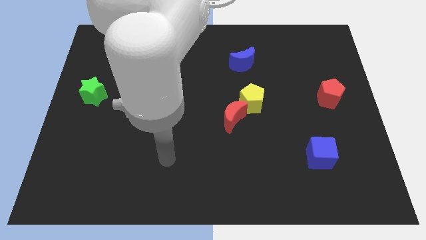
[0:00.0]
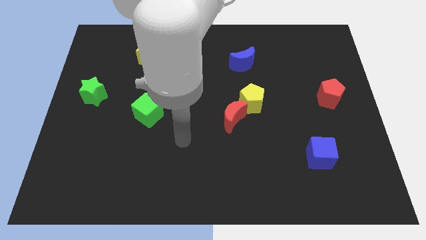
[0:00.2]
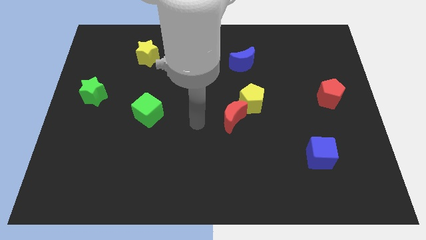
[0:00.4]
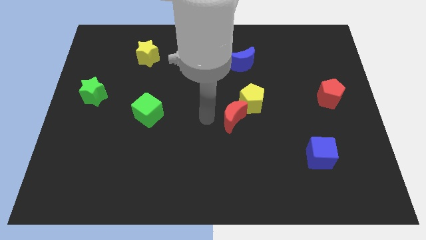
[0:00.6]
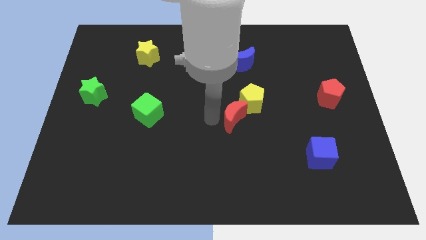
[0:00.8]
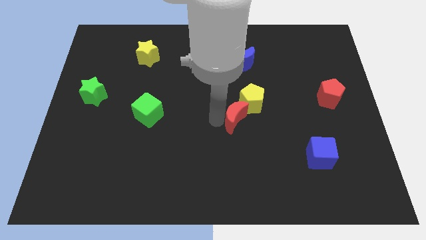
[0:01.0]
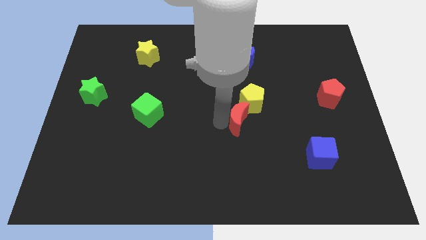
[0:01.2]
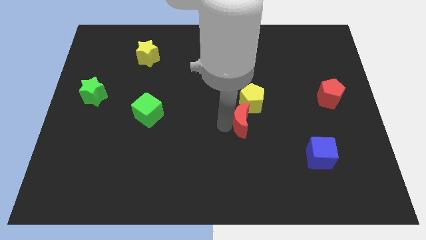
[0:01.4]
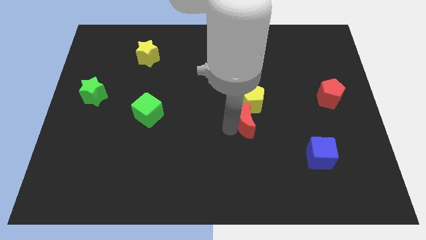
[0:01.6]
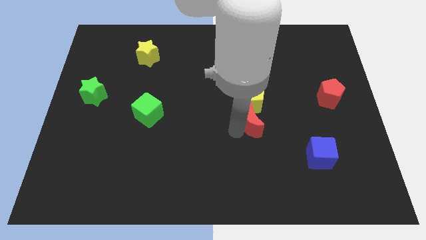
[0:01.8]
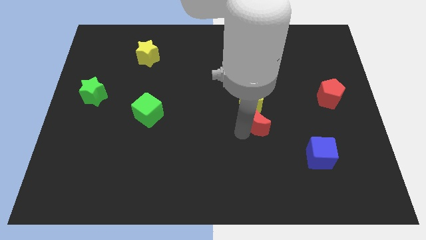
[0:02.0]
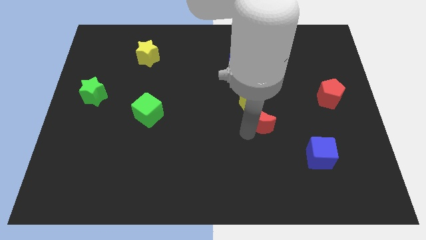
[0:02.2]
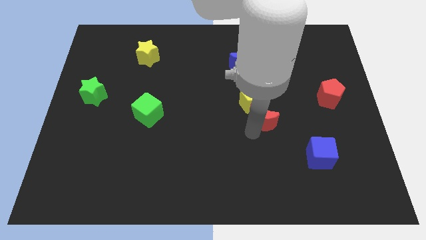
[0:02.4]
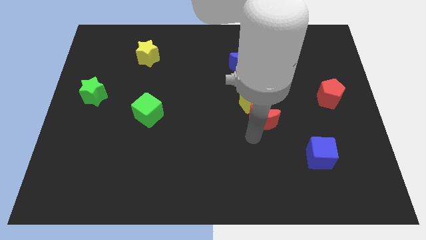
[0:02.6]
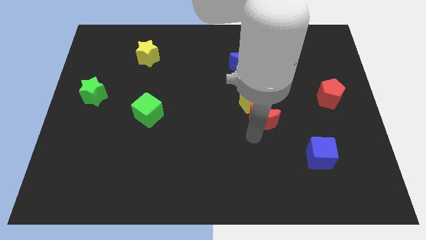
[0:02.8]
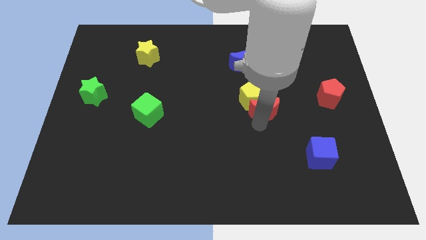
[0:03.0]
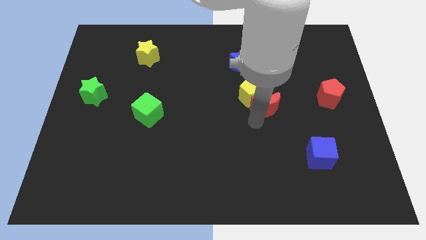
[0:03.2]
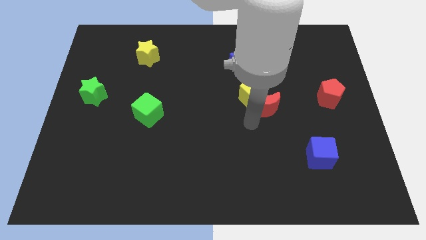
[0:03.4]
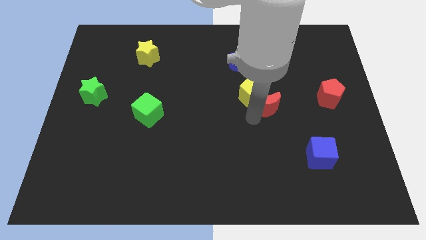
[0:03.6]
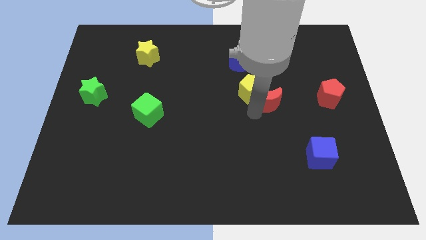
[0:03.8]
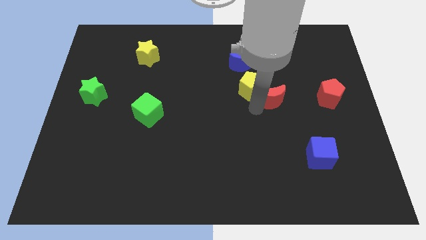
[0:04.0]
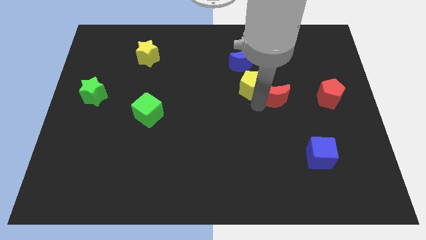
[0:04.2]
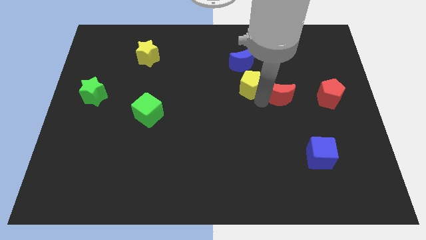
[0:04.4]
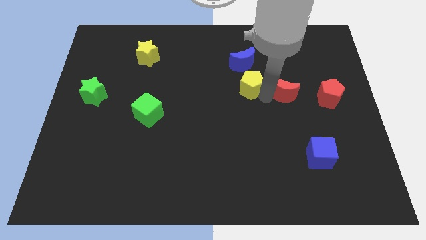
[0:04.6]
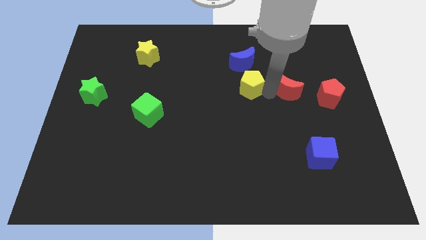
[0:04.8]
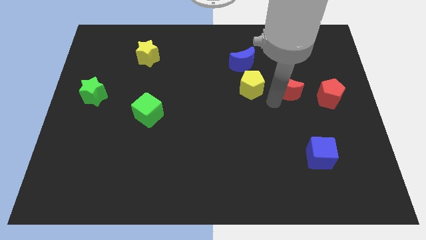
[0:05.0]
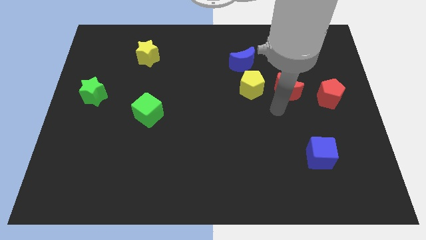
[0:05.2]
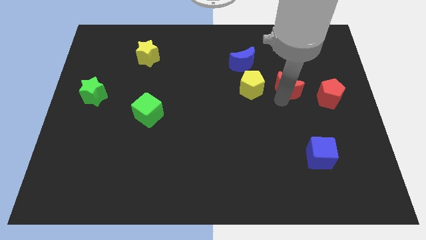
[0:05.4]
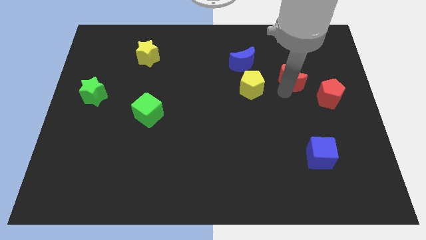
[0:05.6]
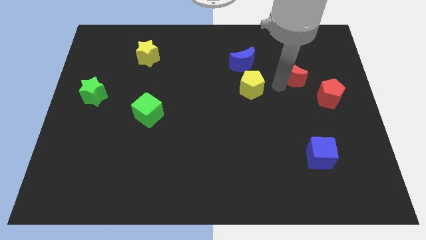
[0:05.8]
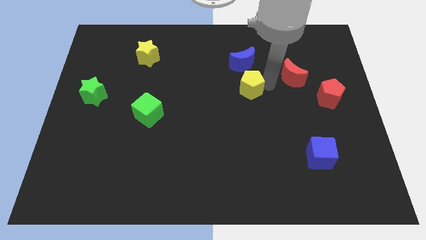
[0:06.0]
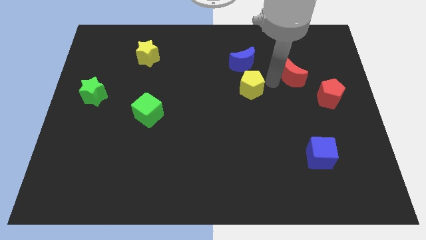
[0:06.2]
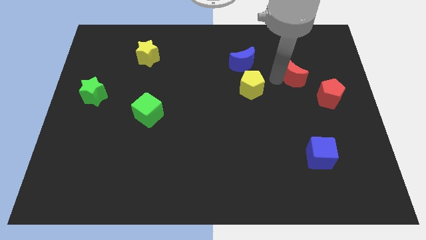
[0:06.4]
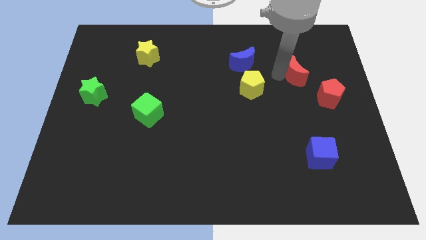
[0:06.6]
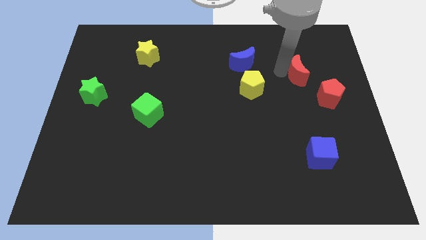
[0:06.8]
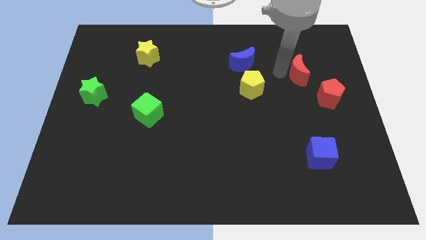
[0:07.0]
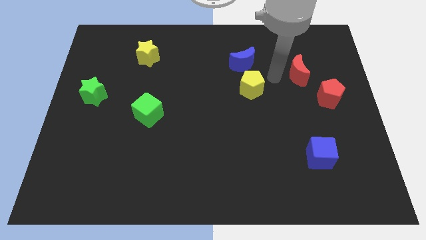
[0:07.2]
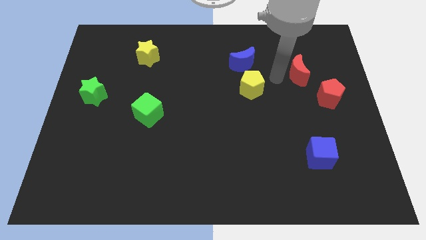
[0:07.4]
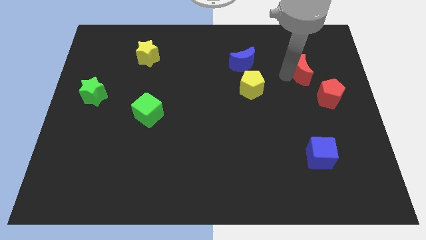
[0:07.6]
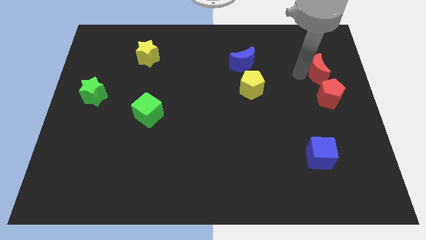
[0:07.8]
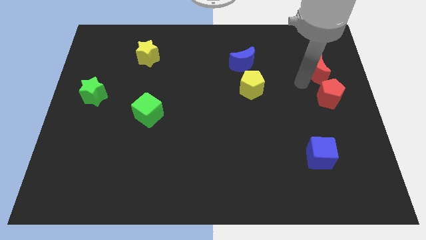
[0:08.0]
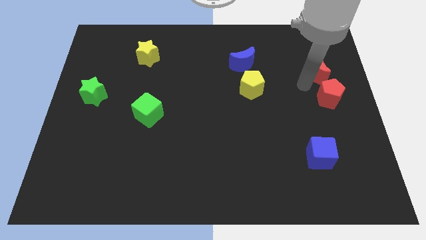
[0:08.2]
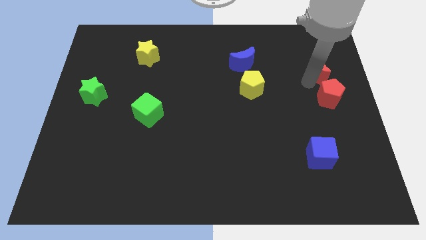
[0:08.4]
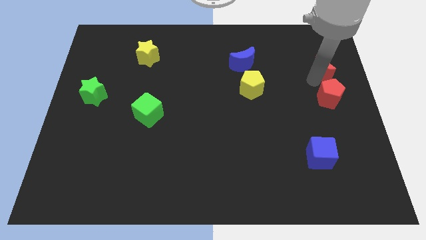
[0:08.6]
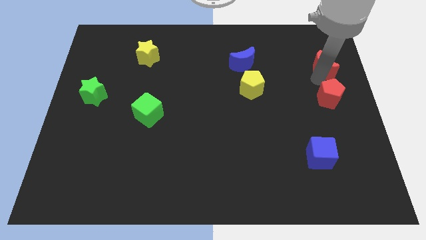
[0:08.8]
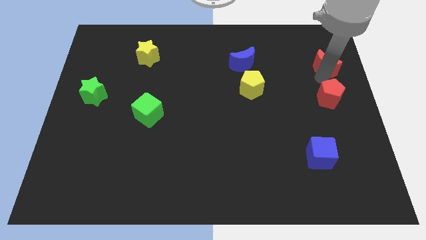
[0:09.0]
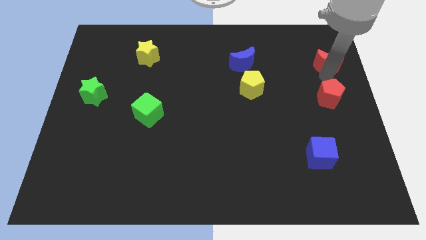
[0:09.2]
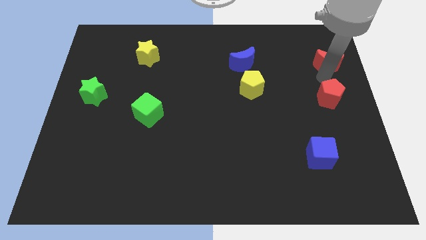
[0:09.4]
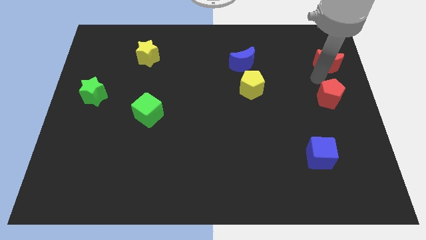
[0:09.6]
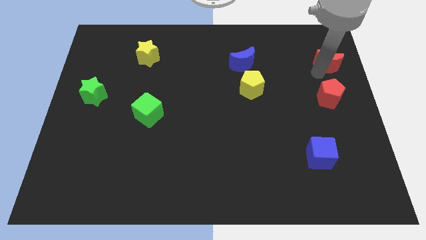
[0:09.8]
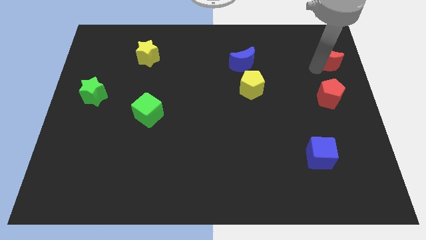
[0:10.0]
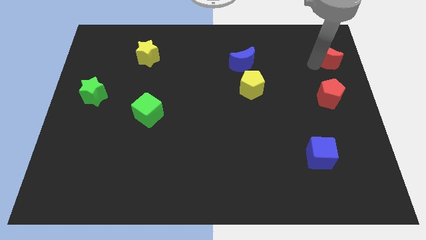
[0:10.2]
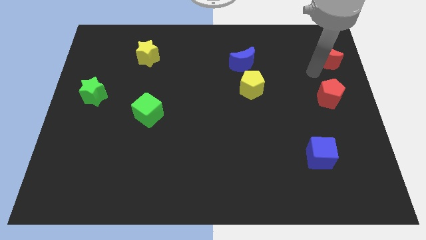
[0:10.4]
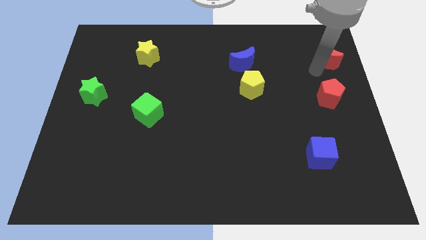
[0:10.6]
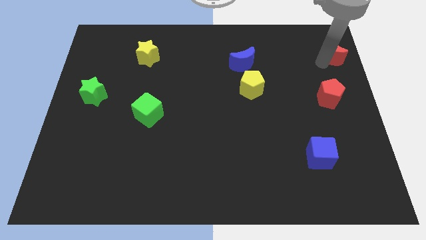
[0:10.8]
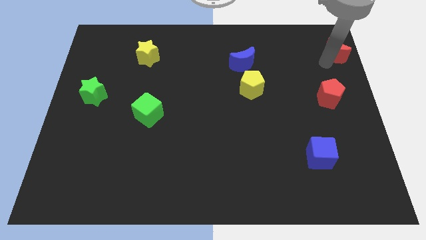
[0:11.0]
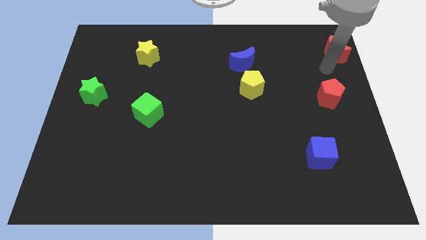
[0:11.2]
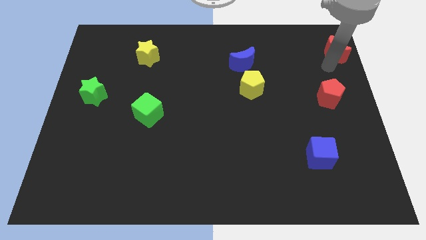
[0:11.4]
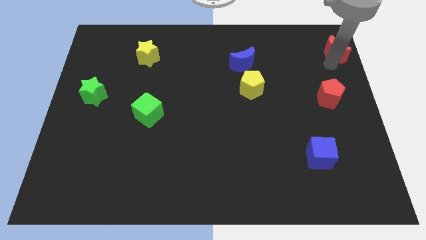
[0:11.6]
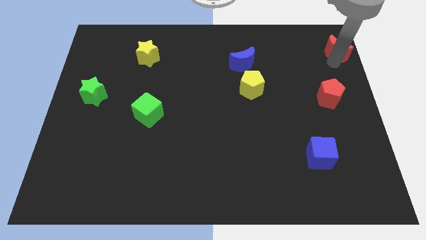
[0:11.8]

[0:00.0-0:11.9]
move the red moon to the top right corner

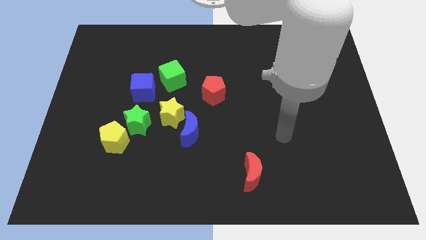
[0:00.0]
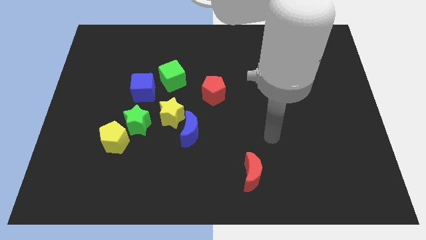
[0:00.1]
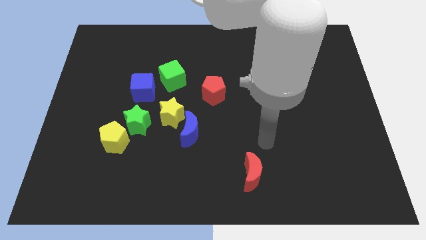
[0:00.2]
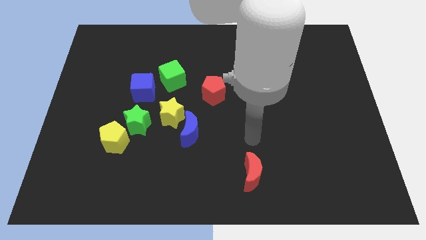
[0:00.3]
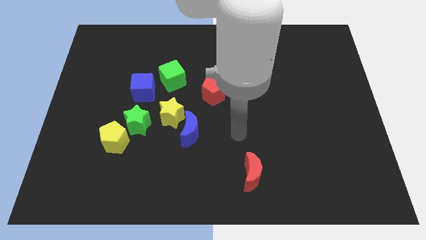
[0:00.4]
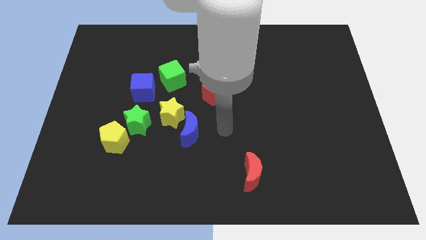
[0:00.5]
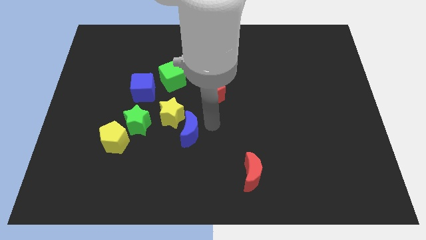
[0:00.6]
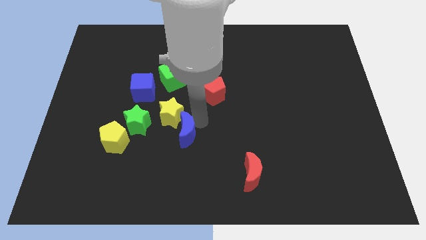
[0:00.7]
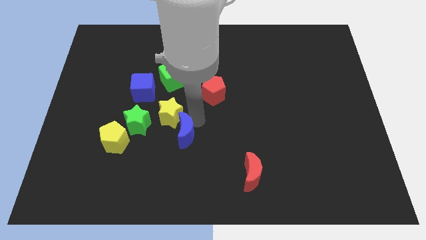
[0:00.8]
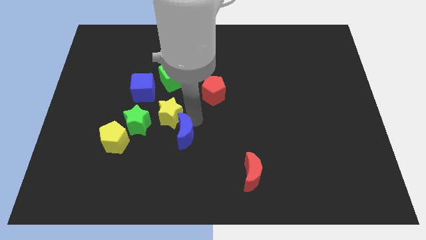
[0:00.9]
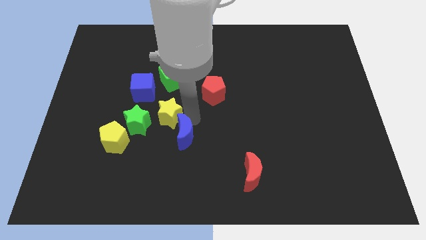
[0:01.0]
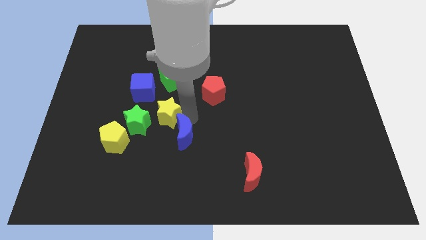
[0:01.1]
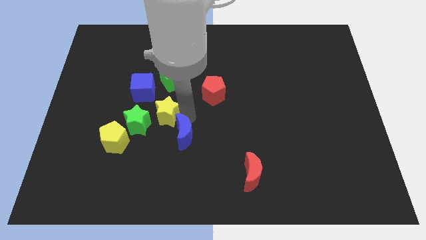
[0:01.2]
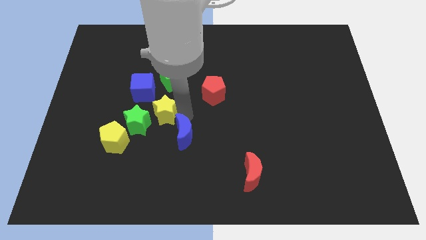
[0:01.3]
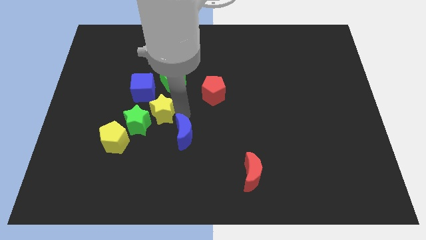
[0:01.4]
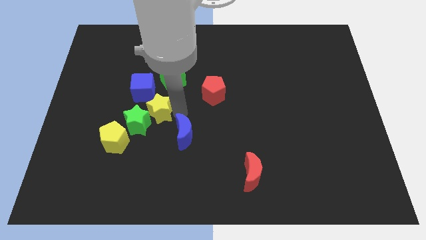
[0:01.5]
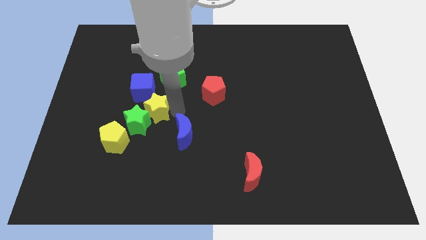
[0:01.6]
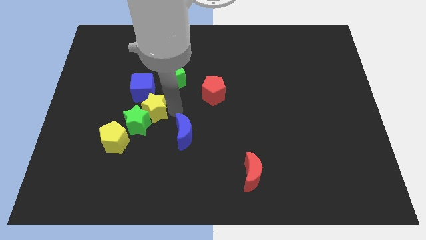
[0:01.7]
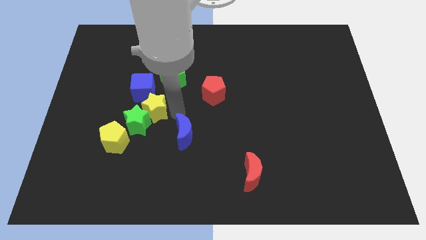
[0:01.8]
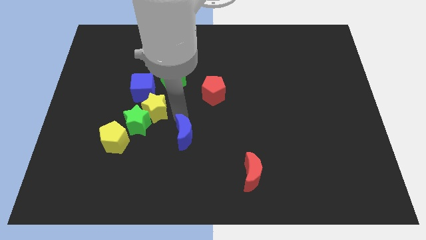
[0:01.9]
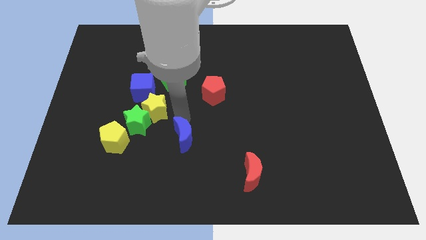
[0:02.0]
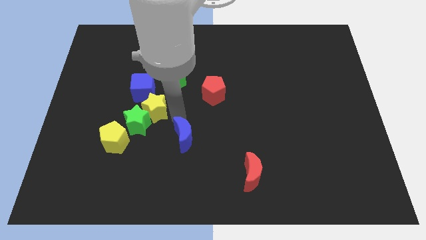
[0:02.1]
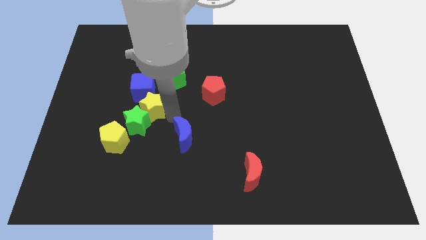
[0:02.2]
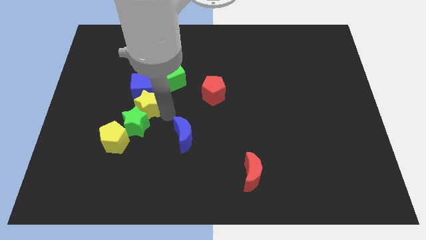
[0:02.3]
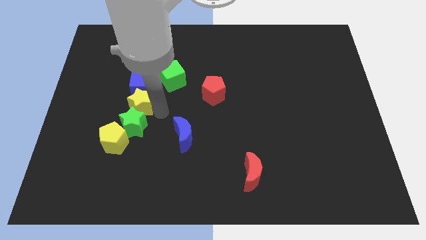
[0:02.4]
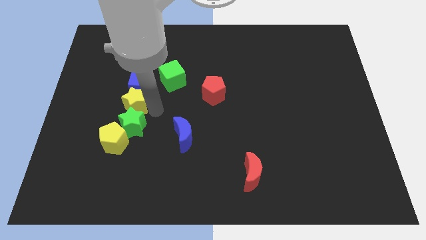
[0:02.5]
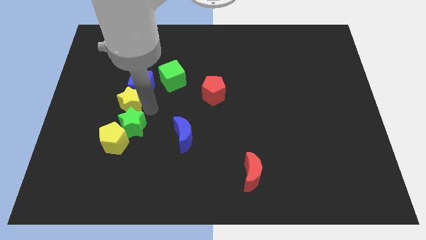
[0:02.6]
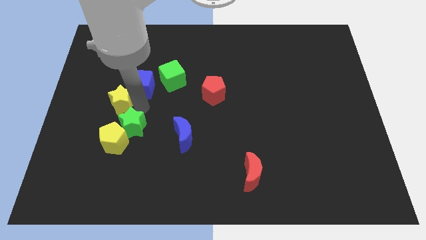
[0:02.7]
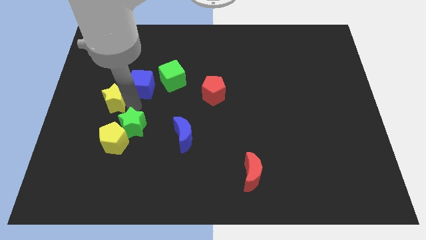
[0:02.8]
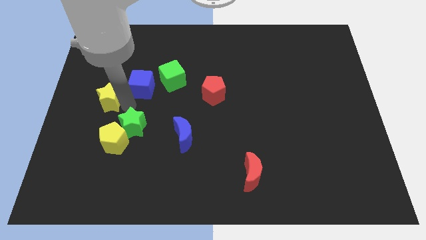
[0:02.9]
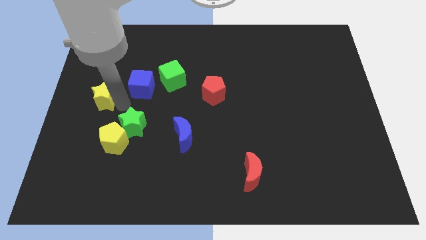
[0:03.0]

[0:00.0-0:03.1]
move the yellow star to the left side
